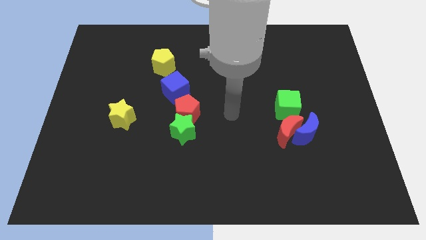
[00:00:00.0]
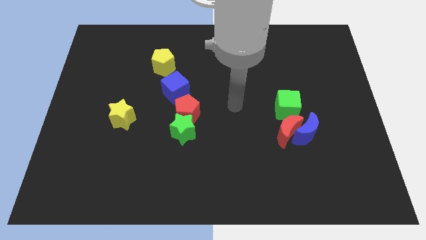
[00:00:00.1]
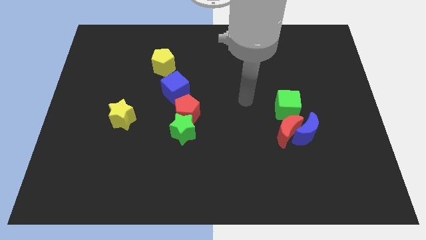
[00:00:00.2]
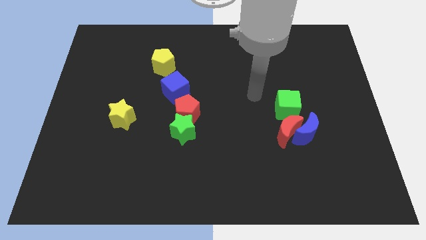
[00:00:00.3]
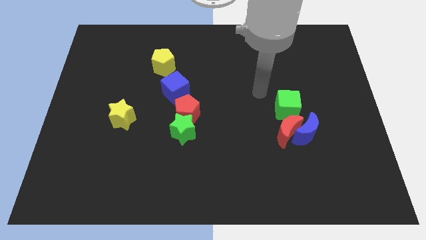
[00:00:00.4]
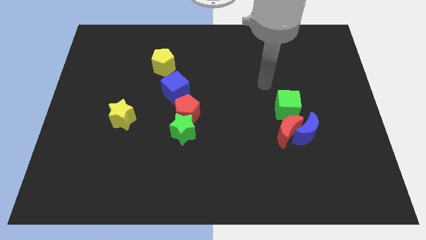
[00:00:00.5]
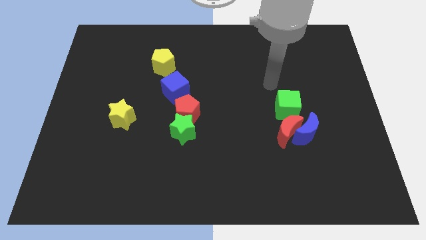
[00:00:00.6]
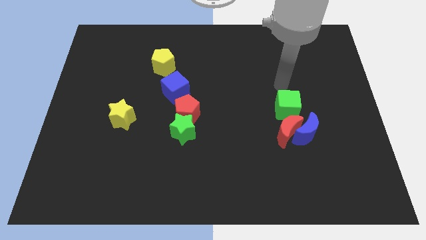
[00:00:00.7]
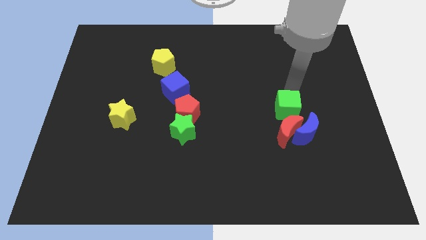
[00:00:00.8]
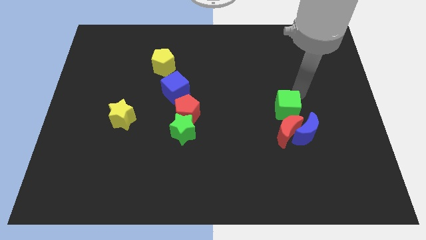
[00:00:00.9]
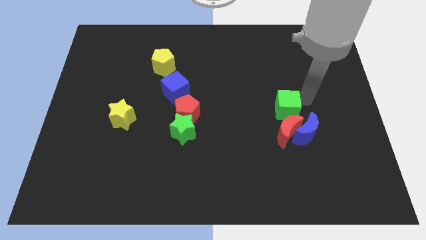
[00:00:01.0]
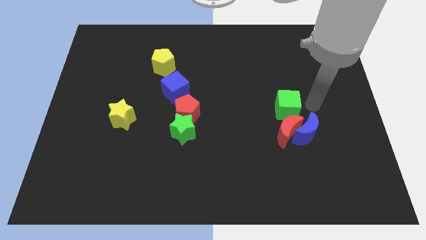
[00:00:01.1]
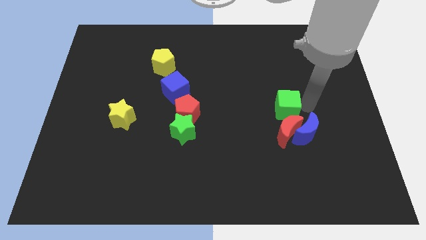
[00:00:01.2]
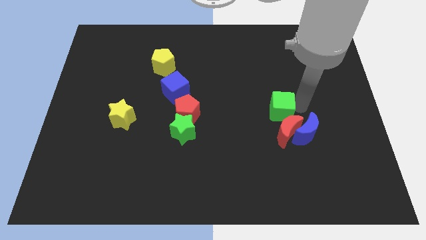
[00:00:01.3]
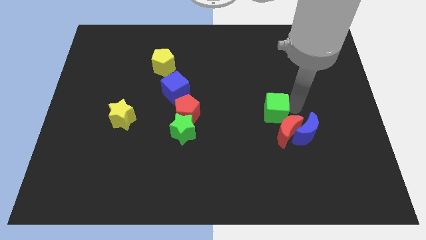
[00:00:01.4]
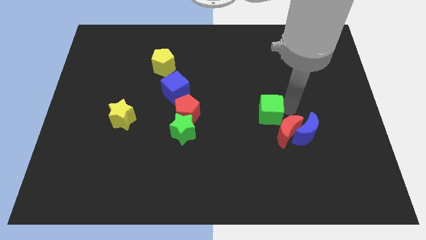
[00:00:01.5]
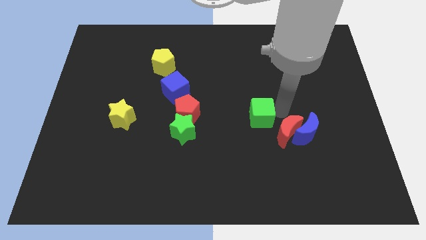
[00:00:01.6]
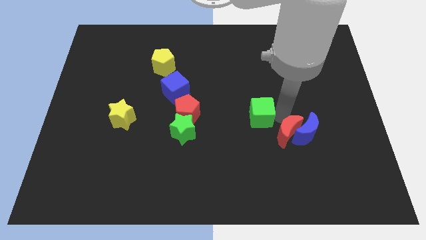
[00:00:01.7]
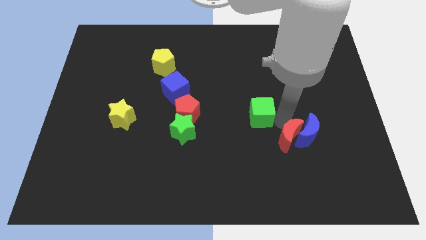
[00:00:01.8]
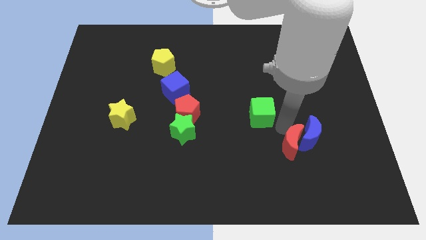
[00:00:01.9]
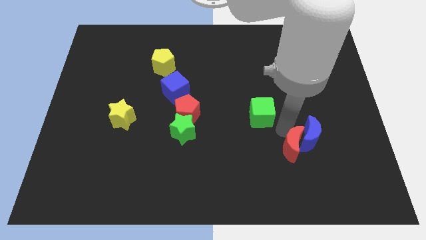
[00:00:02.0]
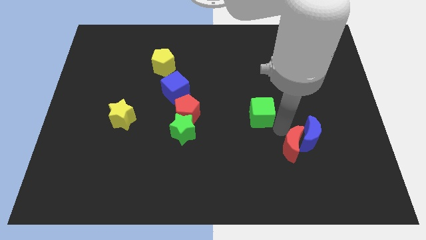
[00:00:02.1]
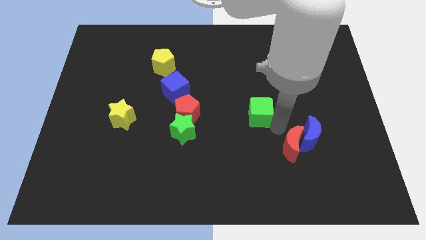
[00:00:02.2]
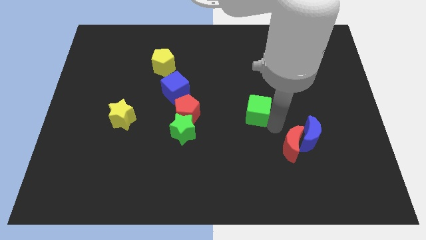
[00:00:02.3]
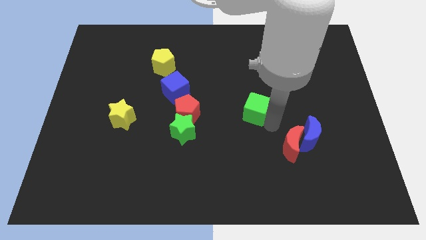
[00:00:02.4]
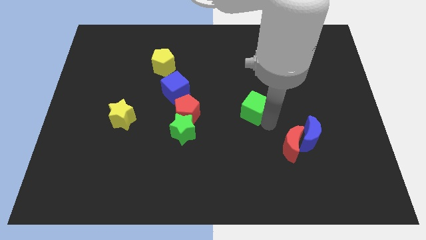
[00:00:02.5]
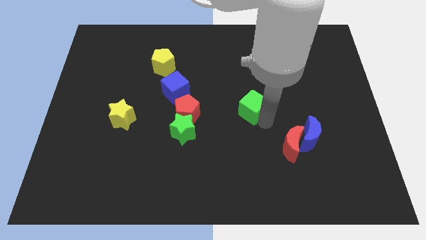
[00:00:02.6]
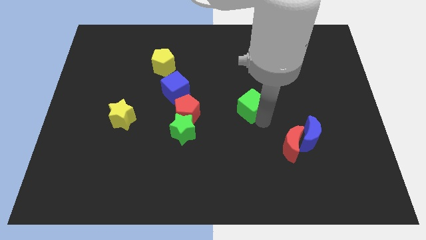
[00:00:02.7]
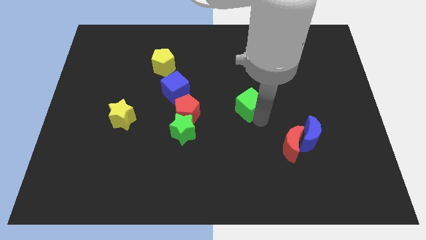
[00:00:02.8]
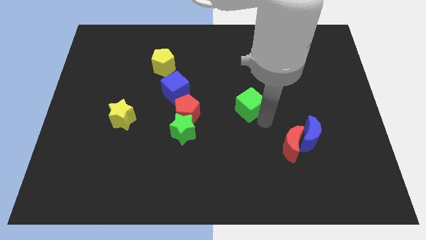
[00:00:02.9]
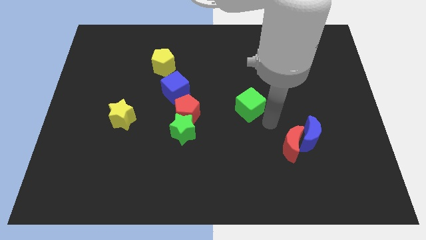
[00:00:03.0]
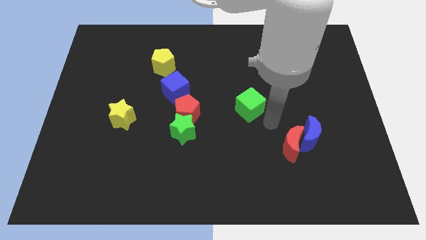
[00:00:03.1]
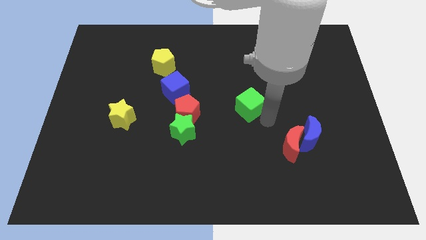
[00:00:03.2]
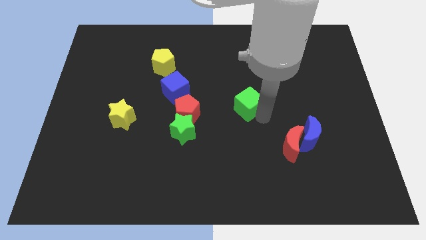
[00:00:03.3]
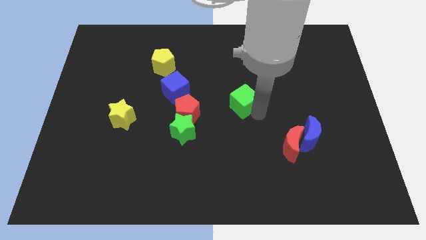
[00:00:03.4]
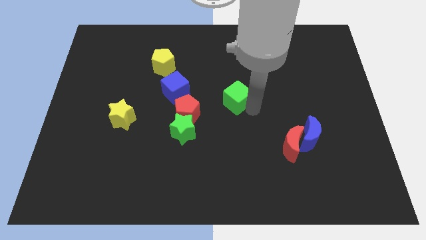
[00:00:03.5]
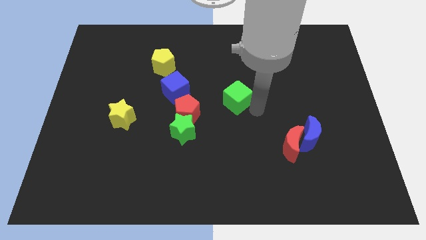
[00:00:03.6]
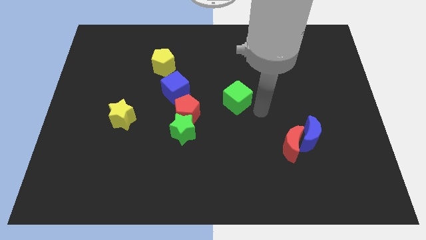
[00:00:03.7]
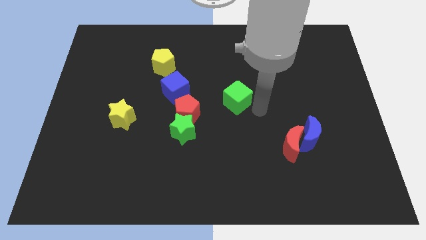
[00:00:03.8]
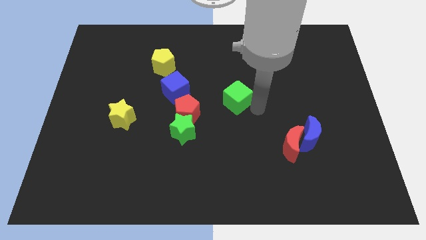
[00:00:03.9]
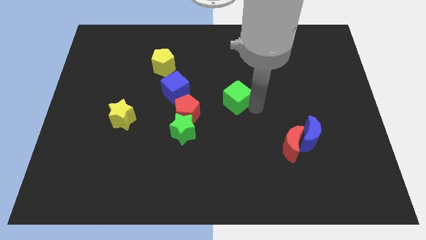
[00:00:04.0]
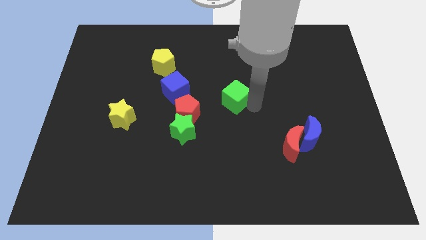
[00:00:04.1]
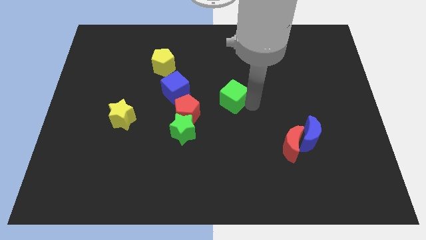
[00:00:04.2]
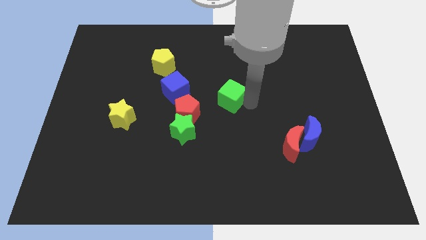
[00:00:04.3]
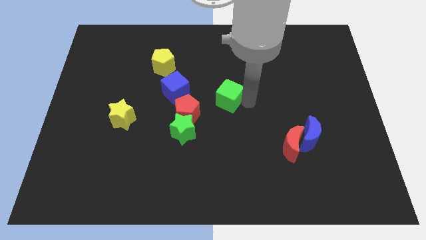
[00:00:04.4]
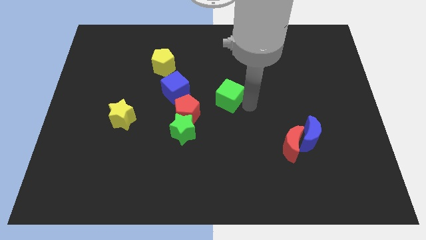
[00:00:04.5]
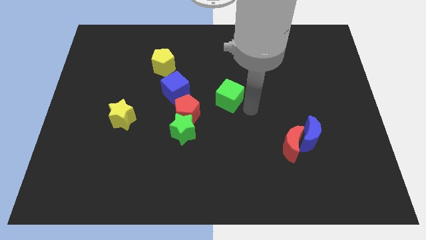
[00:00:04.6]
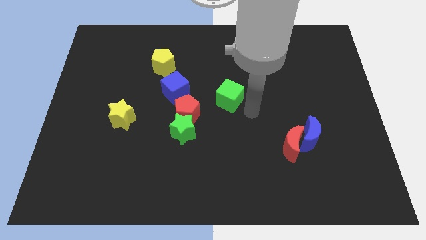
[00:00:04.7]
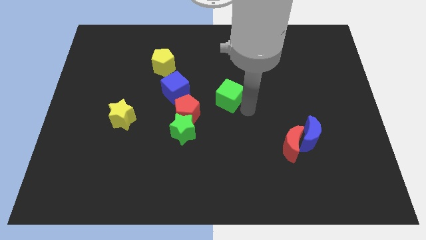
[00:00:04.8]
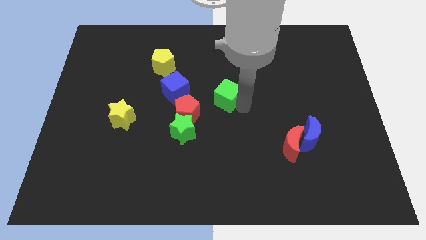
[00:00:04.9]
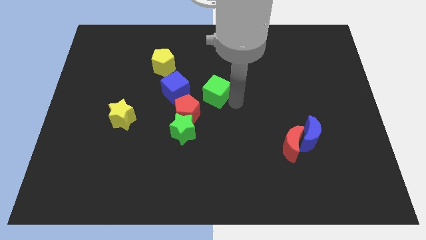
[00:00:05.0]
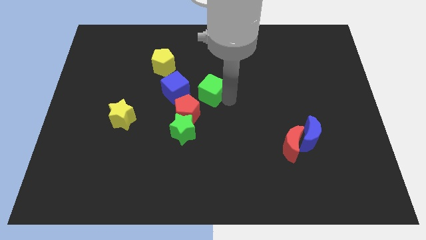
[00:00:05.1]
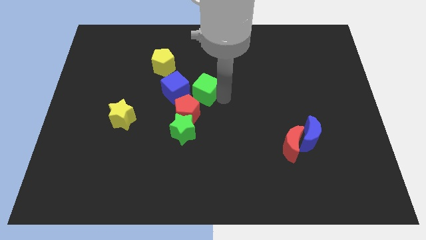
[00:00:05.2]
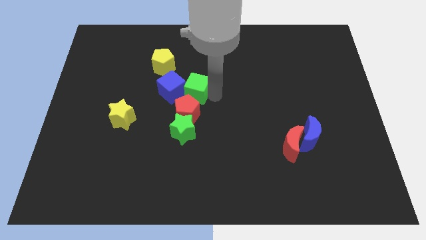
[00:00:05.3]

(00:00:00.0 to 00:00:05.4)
move the green cube to the left

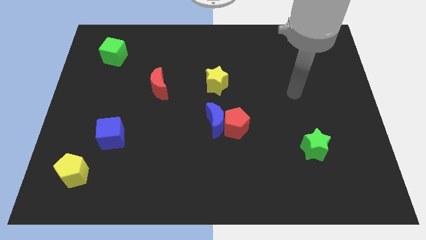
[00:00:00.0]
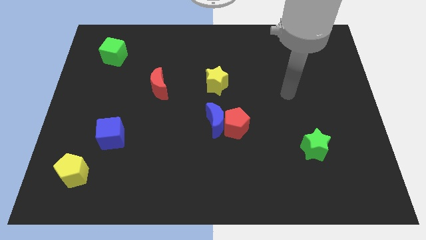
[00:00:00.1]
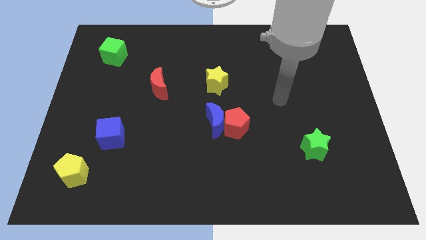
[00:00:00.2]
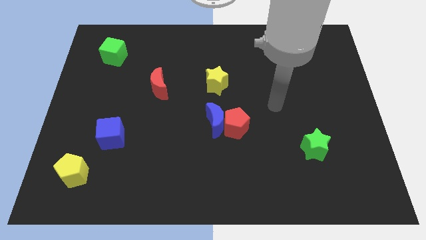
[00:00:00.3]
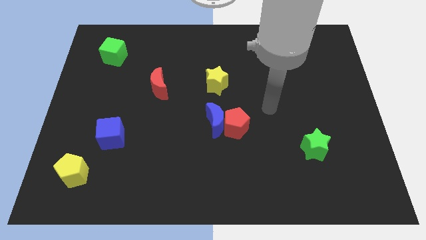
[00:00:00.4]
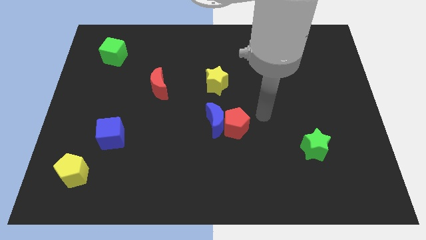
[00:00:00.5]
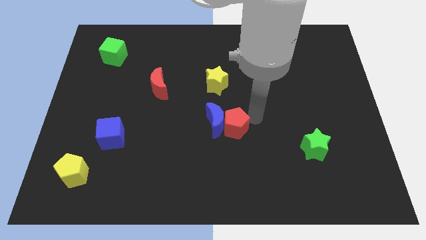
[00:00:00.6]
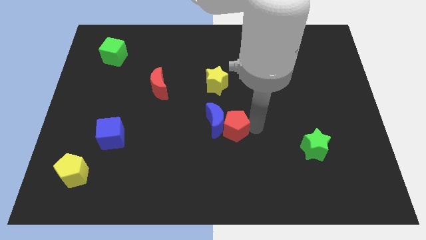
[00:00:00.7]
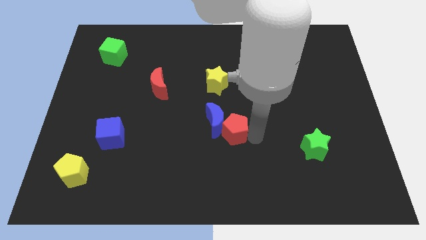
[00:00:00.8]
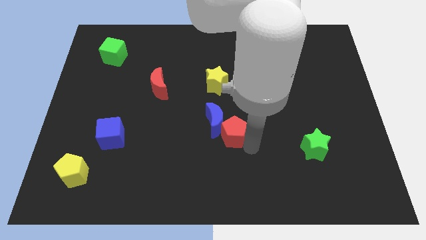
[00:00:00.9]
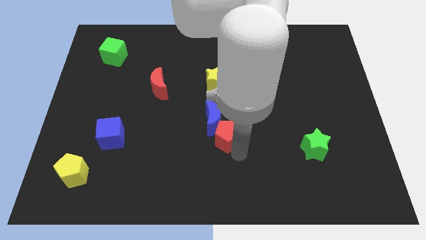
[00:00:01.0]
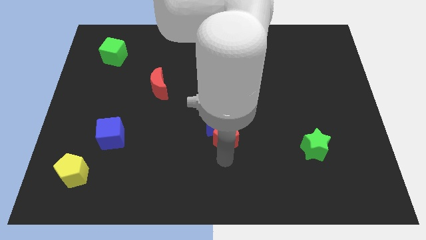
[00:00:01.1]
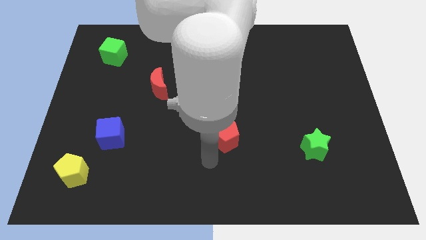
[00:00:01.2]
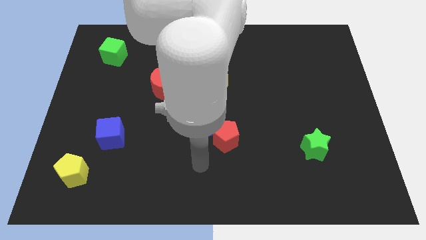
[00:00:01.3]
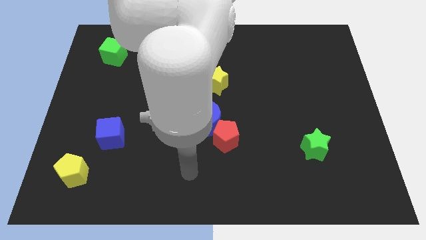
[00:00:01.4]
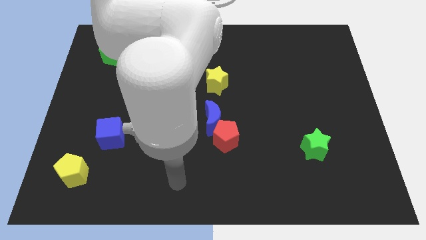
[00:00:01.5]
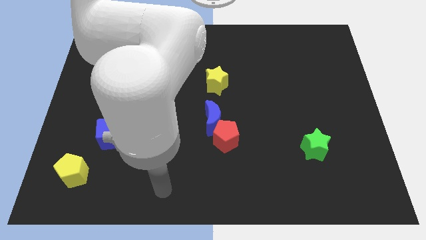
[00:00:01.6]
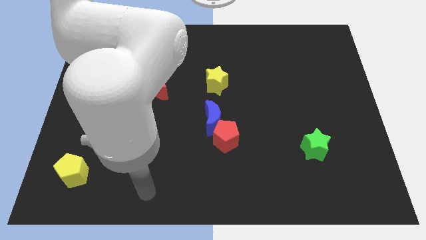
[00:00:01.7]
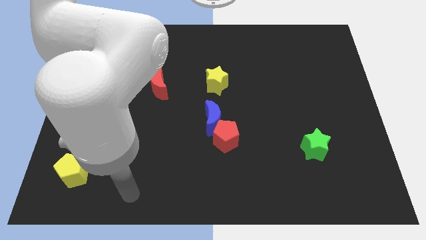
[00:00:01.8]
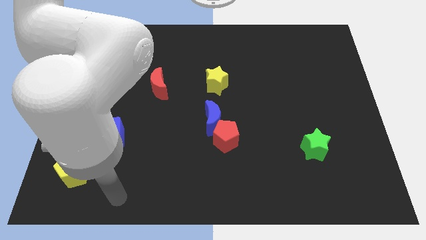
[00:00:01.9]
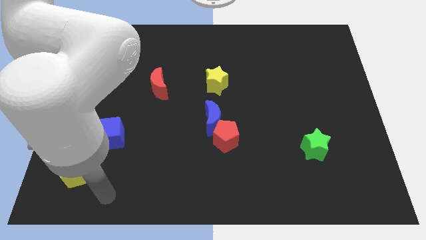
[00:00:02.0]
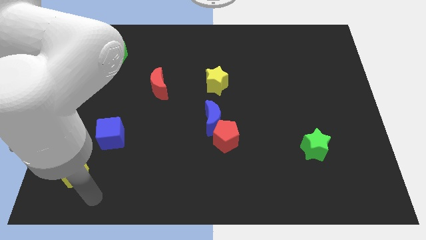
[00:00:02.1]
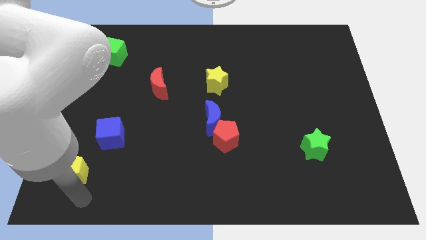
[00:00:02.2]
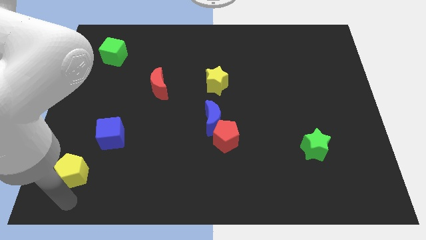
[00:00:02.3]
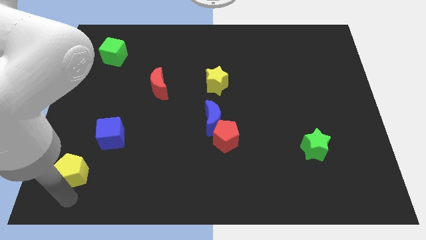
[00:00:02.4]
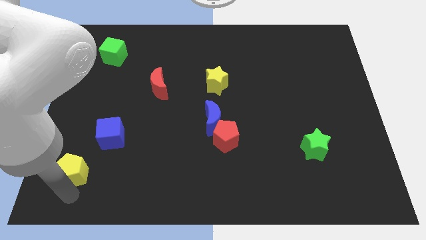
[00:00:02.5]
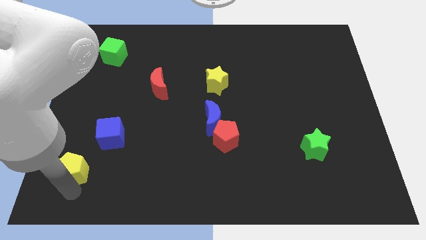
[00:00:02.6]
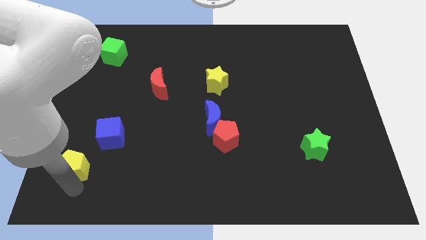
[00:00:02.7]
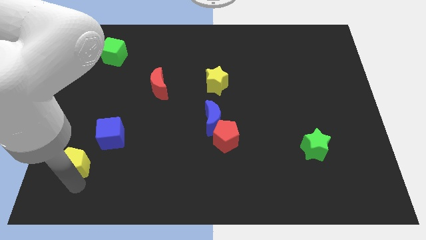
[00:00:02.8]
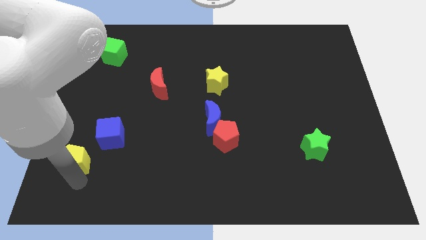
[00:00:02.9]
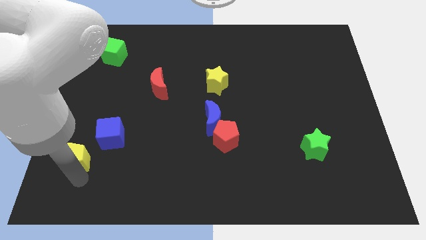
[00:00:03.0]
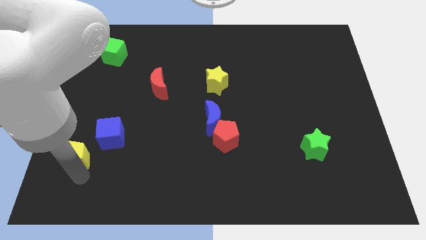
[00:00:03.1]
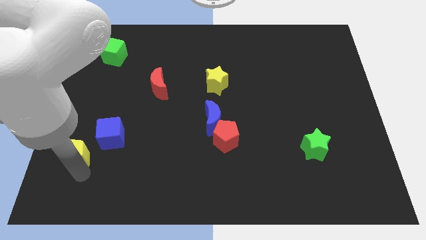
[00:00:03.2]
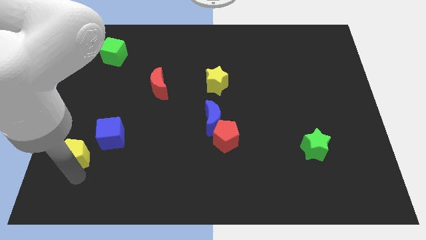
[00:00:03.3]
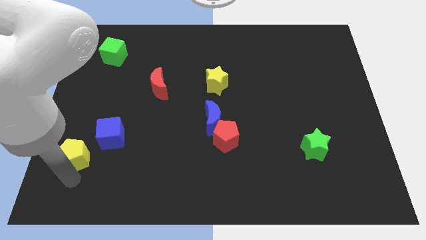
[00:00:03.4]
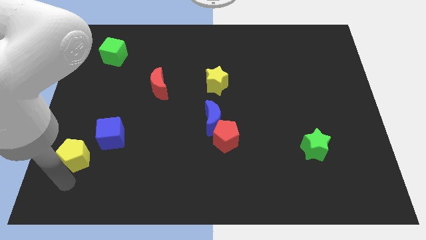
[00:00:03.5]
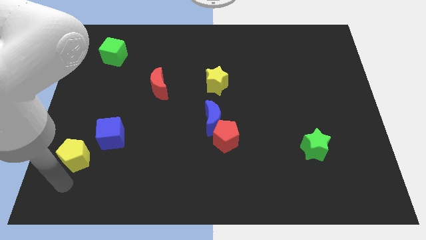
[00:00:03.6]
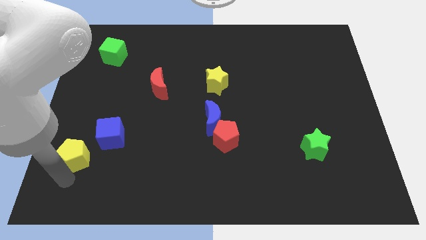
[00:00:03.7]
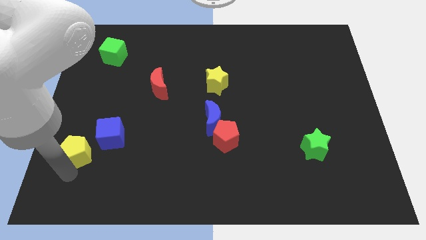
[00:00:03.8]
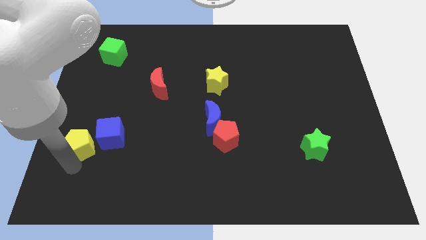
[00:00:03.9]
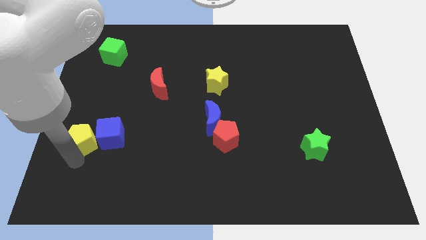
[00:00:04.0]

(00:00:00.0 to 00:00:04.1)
push the yellow pentagon up a bit
